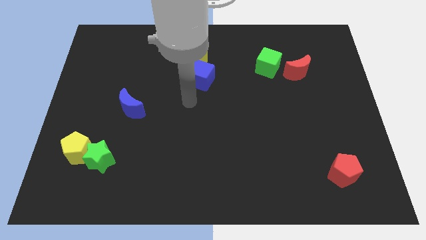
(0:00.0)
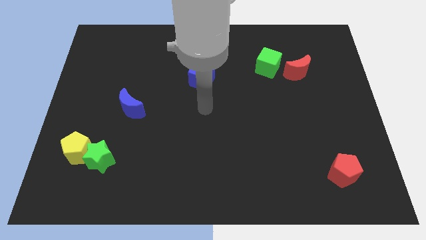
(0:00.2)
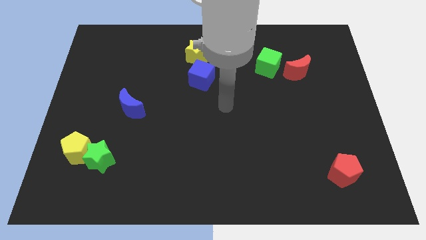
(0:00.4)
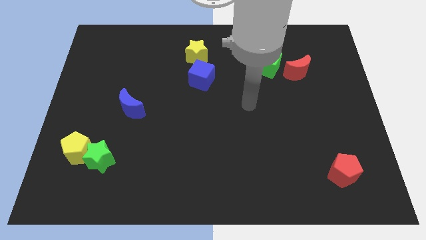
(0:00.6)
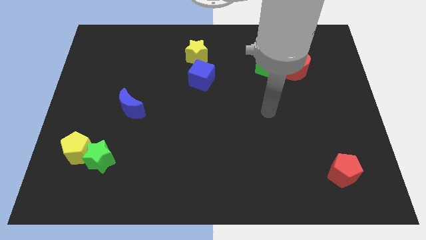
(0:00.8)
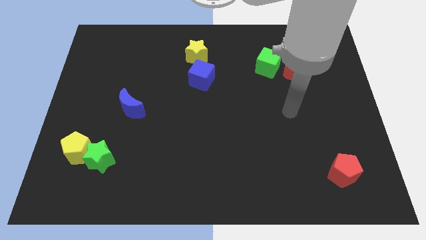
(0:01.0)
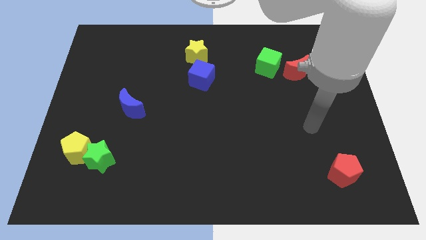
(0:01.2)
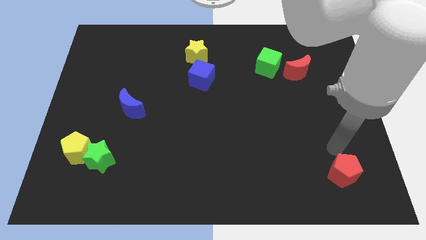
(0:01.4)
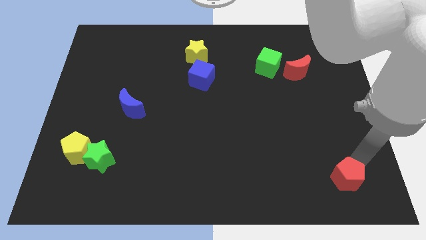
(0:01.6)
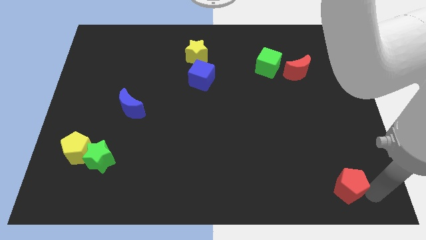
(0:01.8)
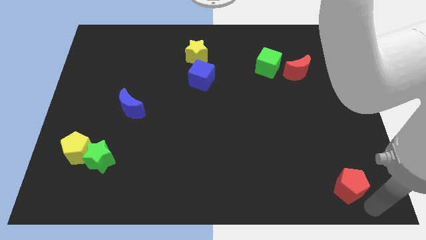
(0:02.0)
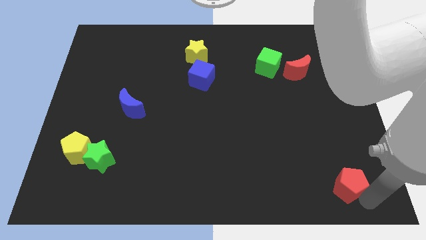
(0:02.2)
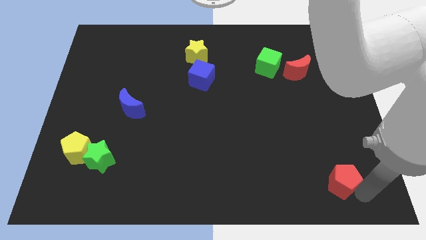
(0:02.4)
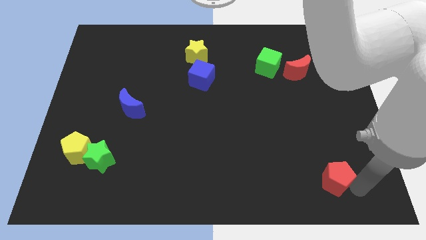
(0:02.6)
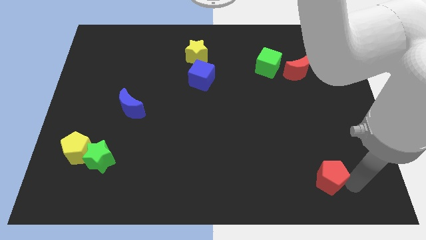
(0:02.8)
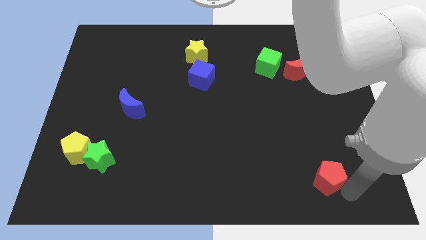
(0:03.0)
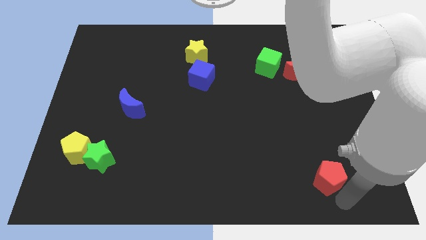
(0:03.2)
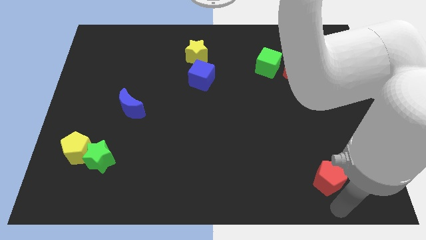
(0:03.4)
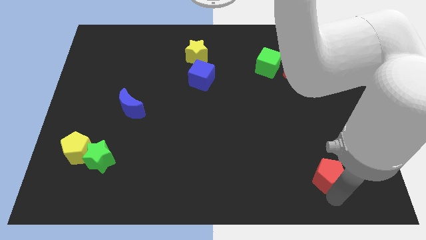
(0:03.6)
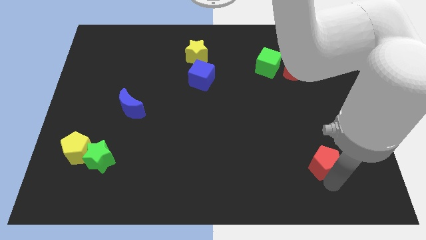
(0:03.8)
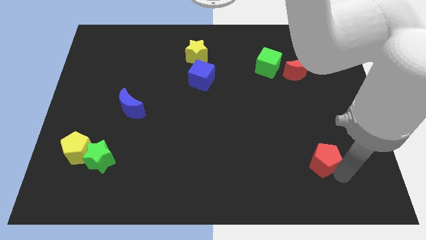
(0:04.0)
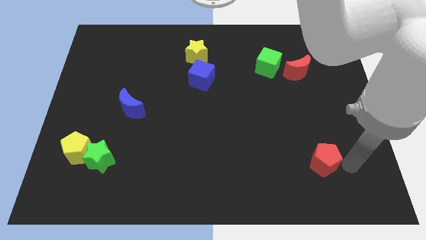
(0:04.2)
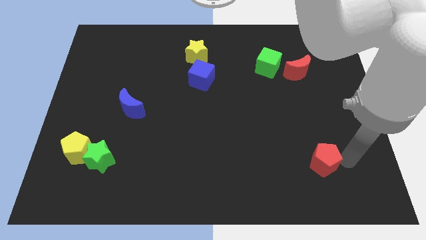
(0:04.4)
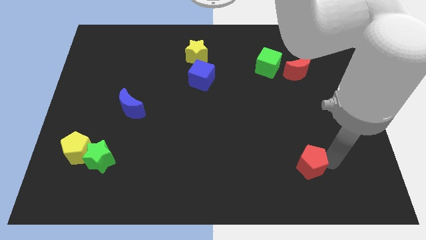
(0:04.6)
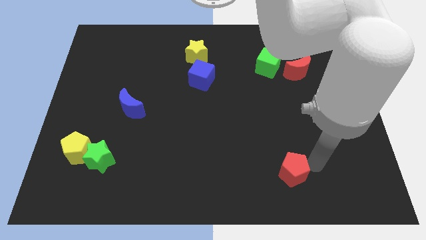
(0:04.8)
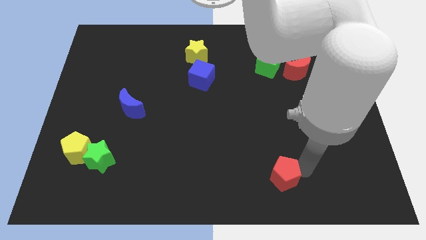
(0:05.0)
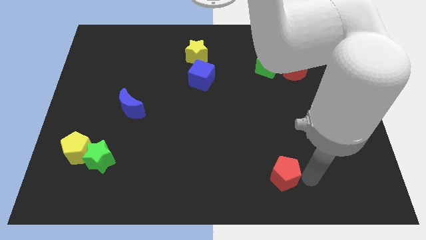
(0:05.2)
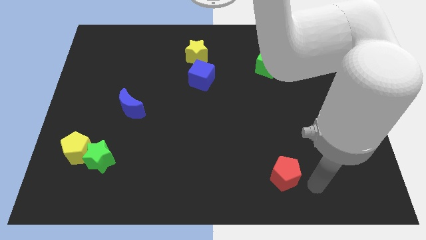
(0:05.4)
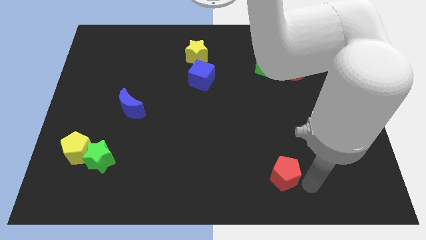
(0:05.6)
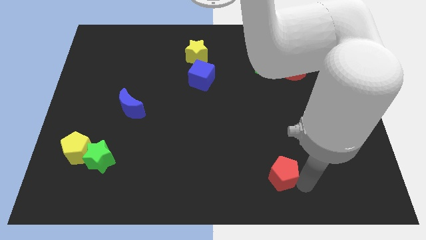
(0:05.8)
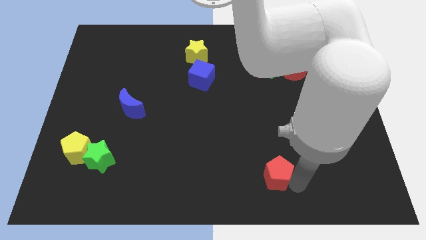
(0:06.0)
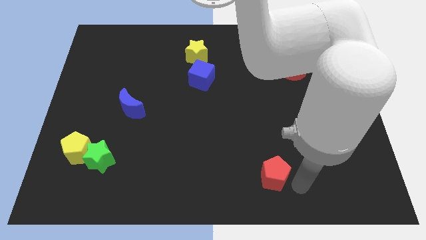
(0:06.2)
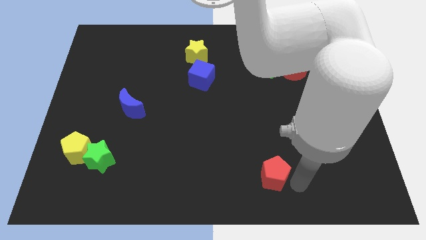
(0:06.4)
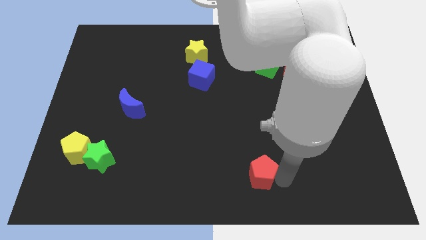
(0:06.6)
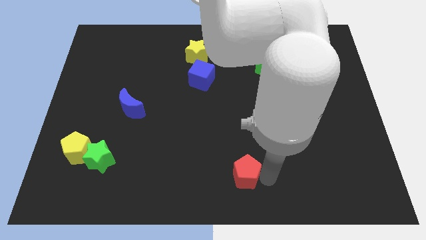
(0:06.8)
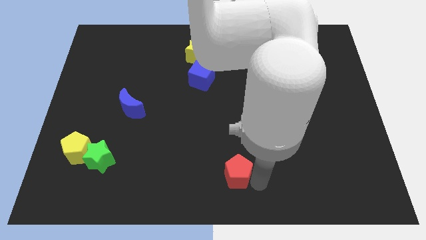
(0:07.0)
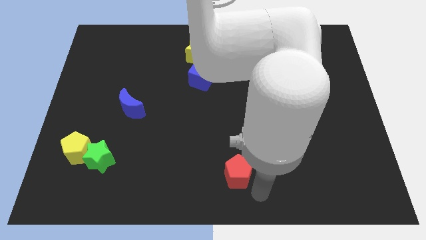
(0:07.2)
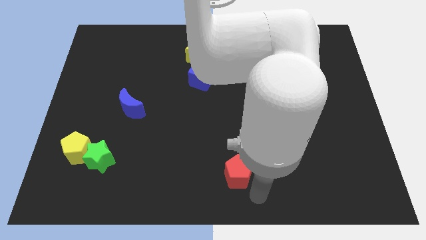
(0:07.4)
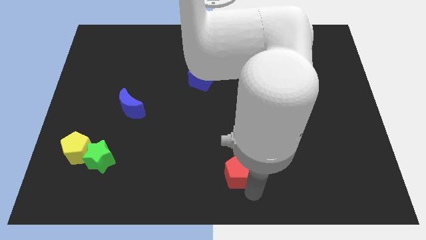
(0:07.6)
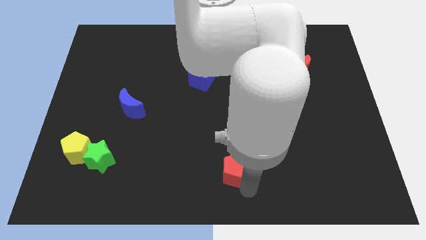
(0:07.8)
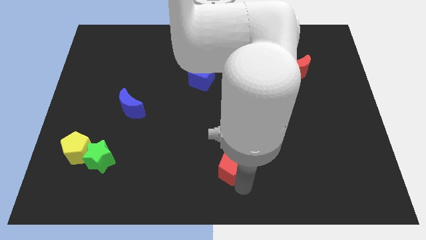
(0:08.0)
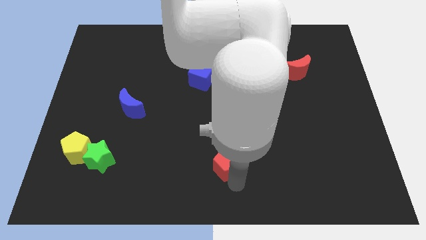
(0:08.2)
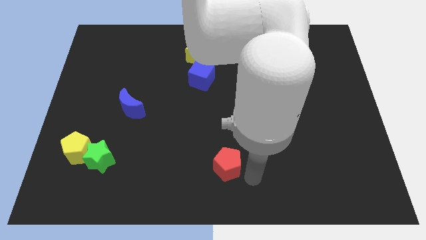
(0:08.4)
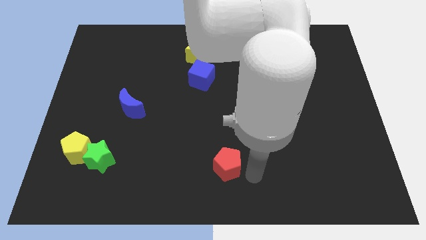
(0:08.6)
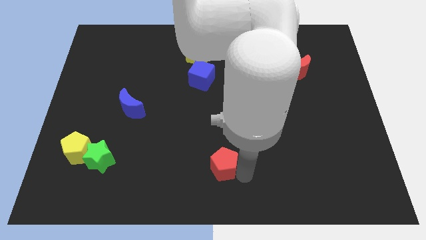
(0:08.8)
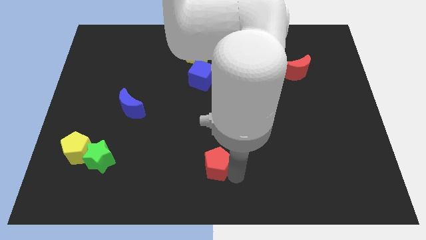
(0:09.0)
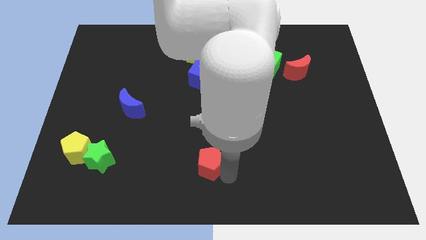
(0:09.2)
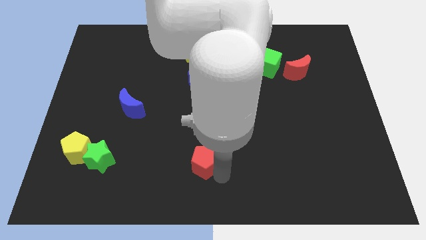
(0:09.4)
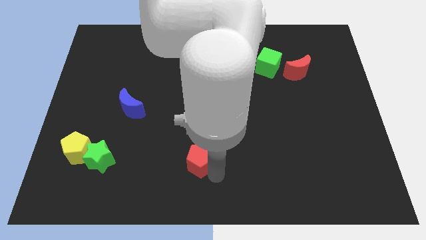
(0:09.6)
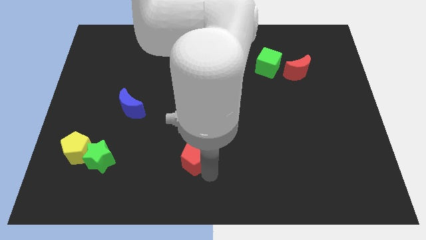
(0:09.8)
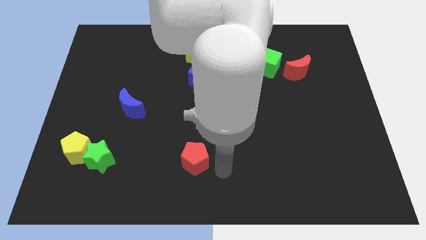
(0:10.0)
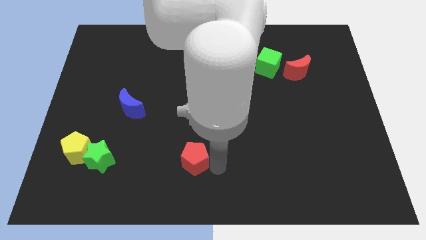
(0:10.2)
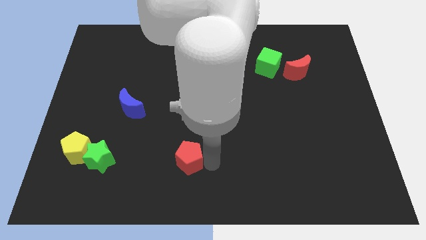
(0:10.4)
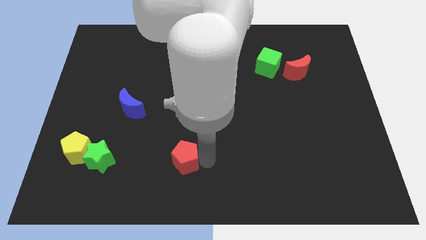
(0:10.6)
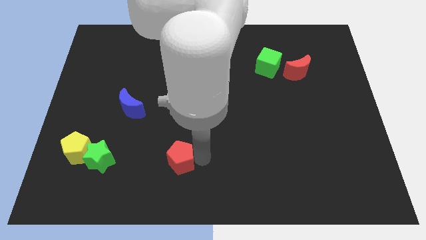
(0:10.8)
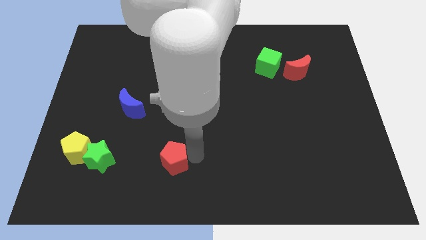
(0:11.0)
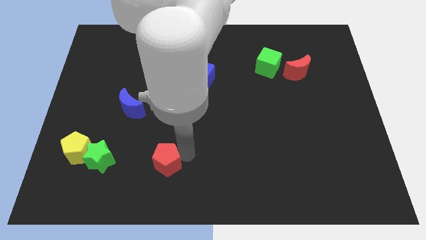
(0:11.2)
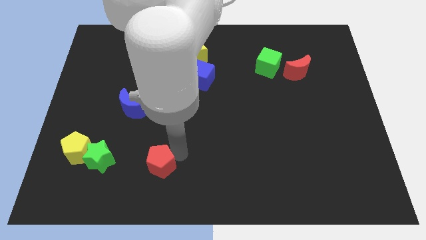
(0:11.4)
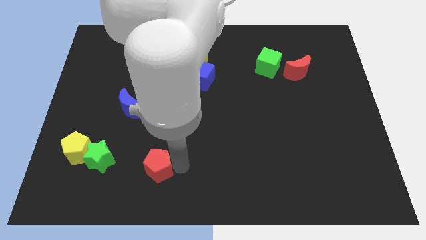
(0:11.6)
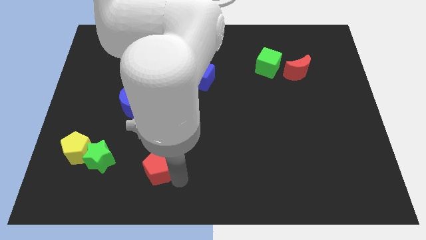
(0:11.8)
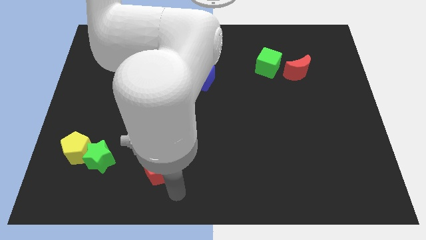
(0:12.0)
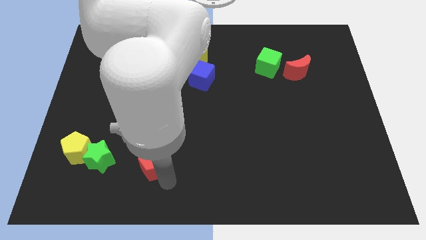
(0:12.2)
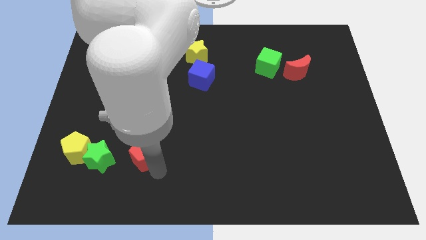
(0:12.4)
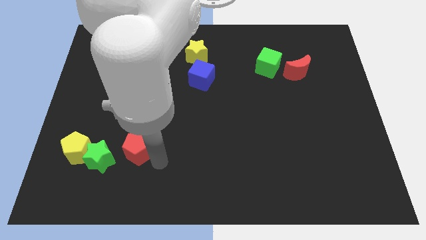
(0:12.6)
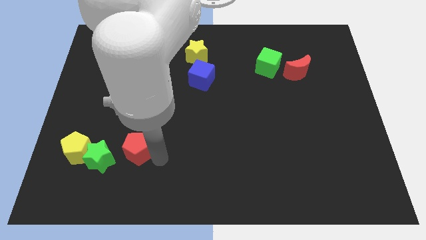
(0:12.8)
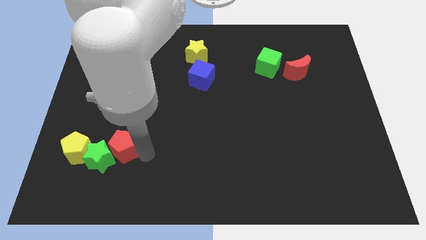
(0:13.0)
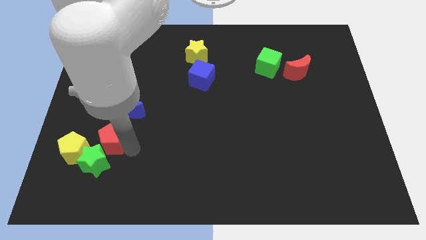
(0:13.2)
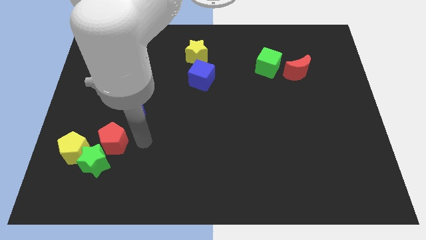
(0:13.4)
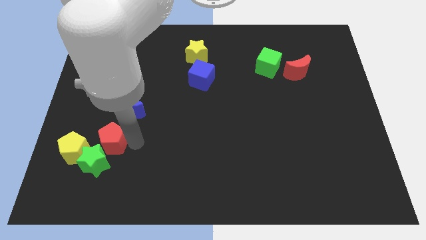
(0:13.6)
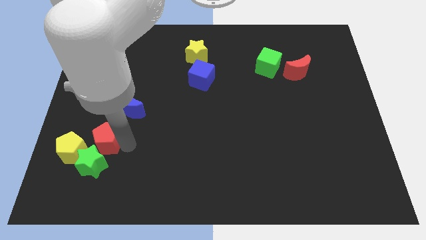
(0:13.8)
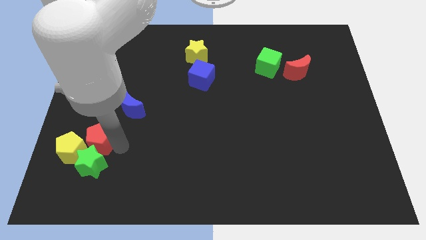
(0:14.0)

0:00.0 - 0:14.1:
move the red pentagon to the top left of the green star

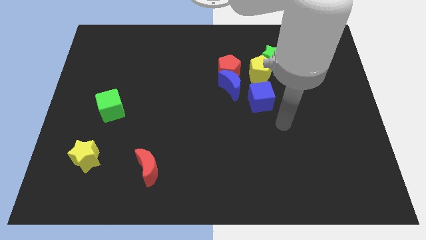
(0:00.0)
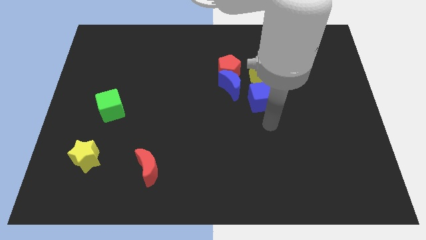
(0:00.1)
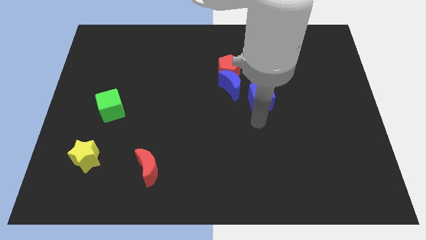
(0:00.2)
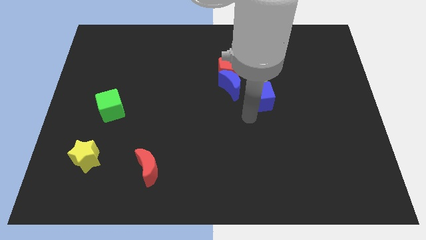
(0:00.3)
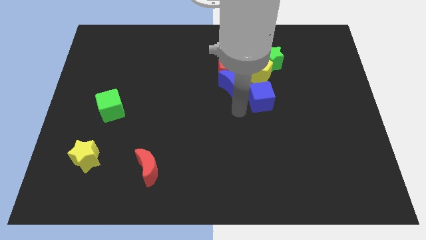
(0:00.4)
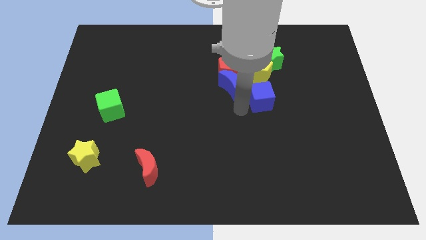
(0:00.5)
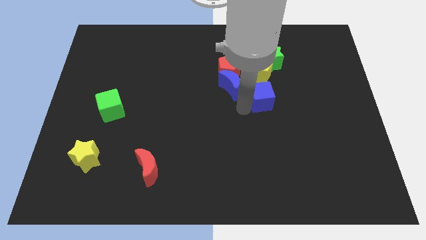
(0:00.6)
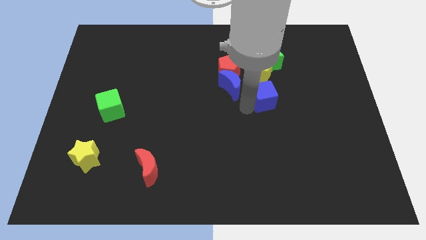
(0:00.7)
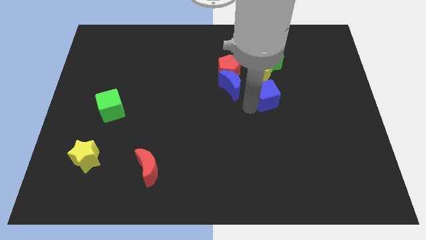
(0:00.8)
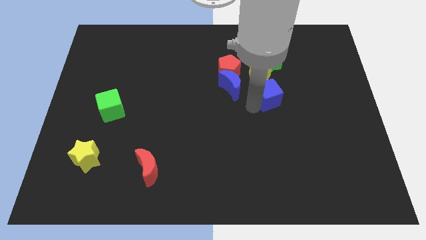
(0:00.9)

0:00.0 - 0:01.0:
put the blue cube to the bottom right side of the yellow pentagon
